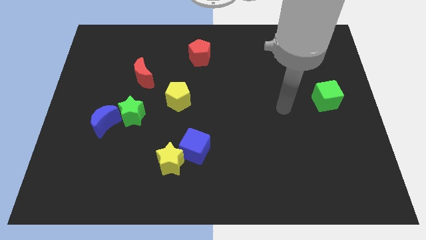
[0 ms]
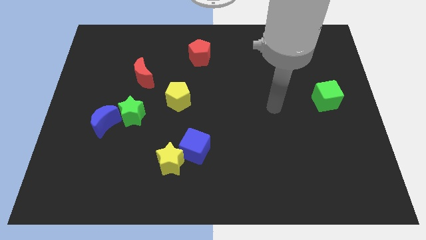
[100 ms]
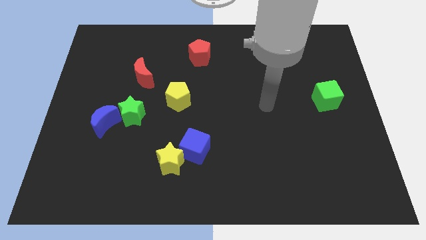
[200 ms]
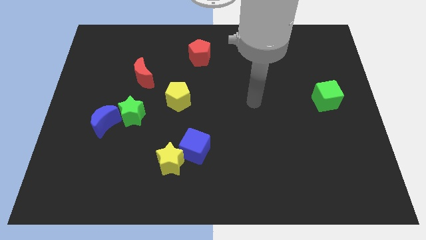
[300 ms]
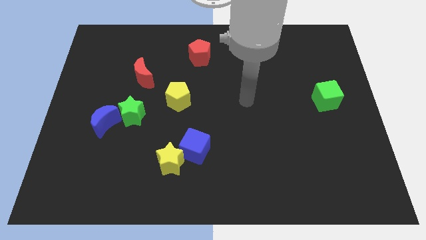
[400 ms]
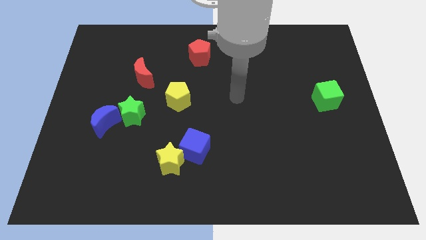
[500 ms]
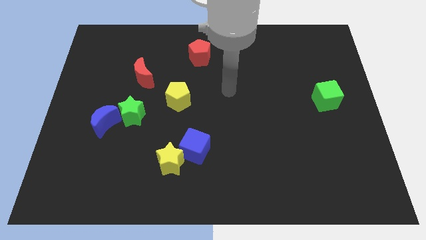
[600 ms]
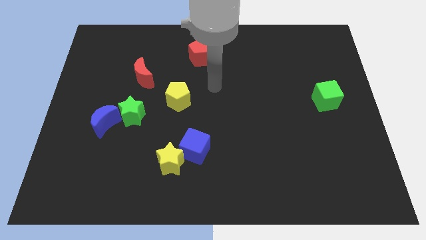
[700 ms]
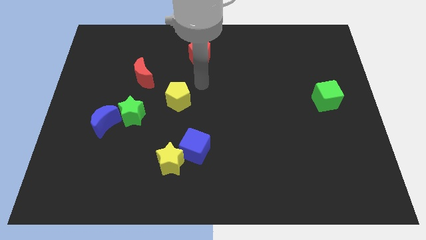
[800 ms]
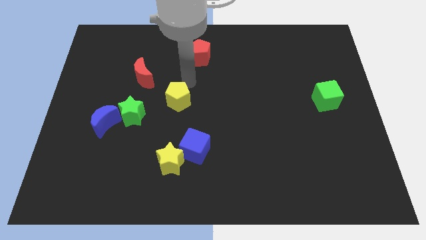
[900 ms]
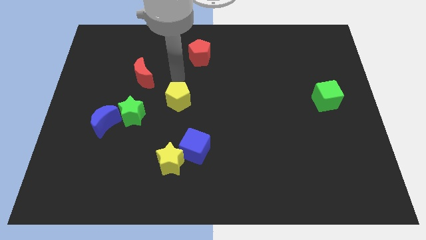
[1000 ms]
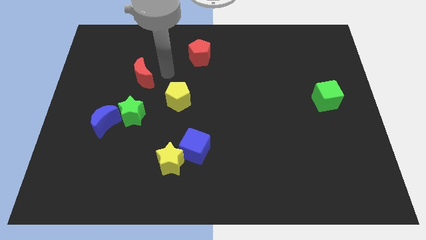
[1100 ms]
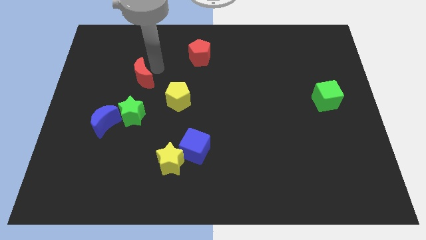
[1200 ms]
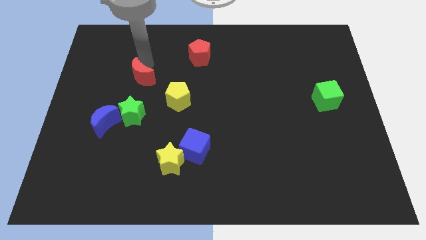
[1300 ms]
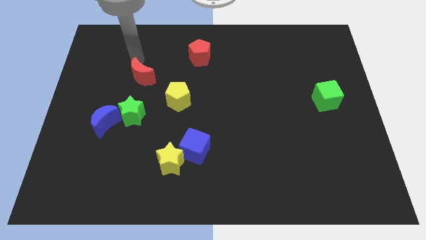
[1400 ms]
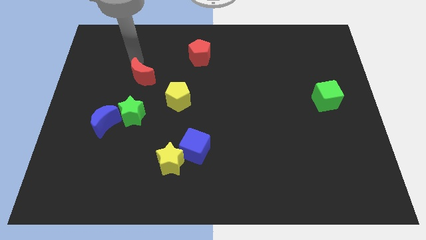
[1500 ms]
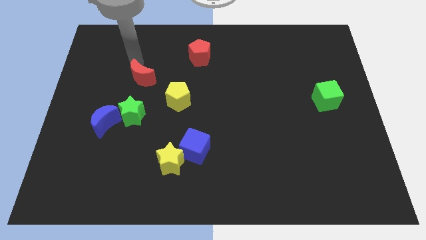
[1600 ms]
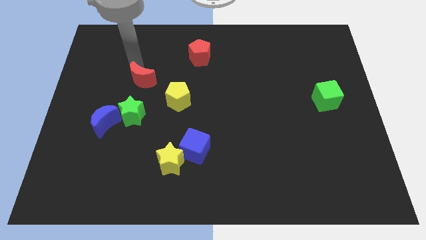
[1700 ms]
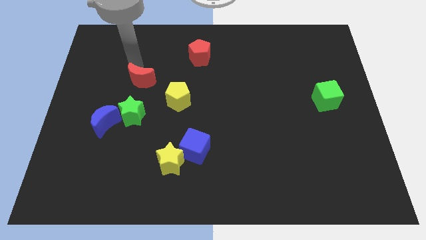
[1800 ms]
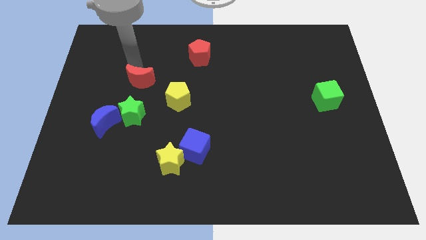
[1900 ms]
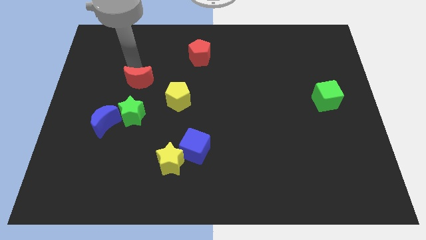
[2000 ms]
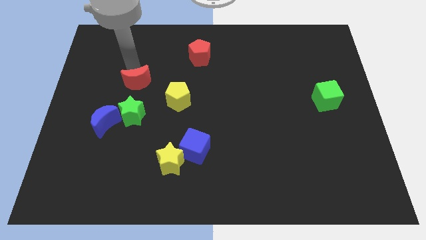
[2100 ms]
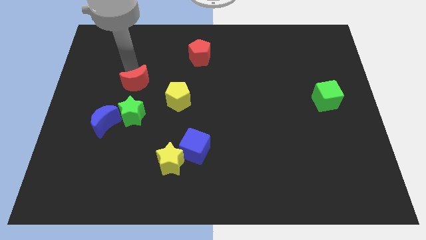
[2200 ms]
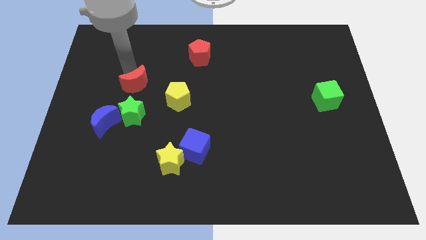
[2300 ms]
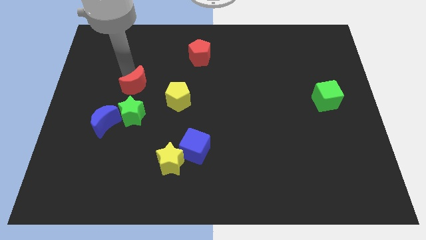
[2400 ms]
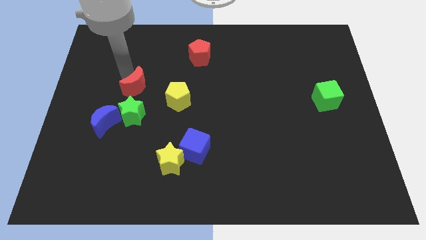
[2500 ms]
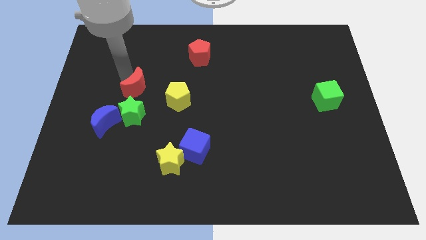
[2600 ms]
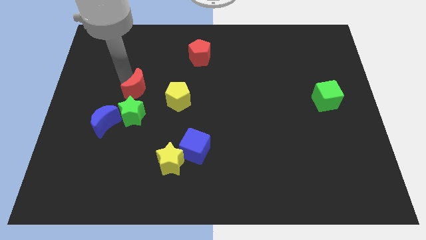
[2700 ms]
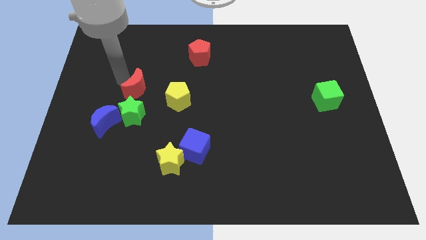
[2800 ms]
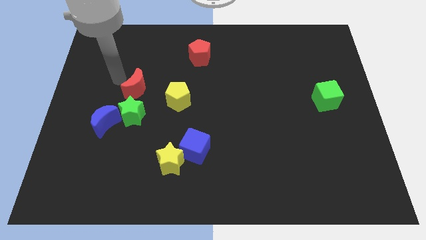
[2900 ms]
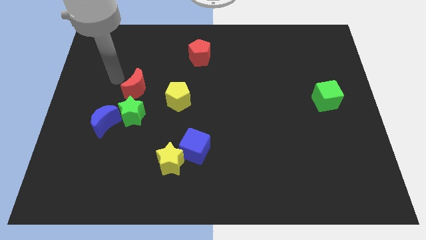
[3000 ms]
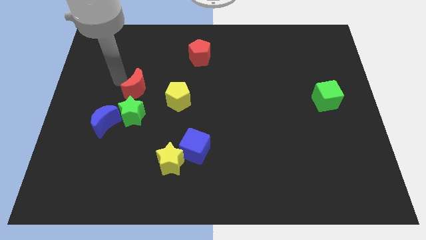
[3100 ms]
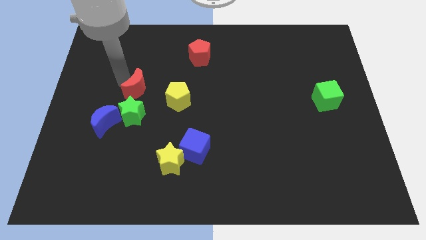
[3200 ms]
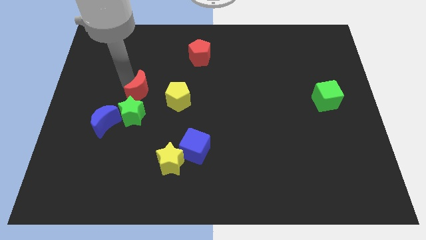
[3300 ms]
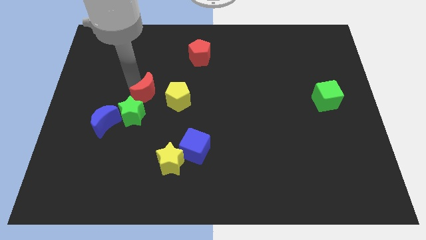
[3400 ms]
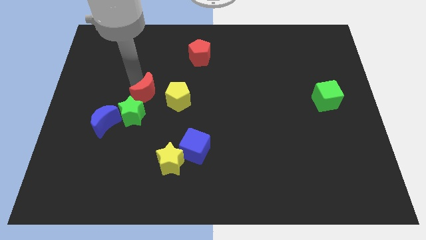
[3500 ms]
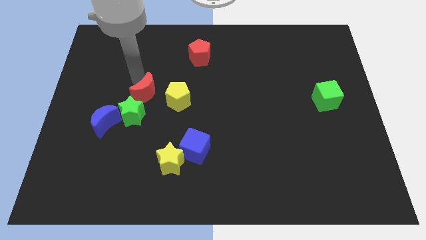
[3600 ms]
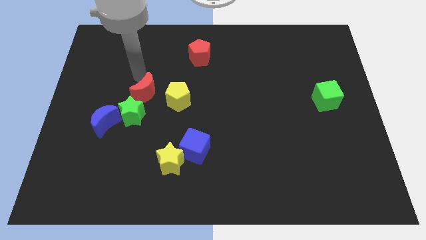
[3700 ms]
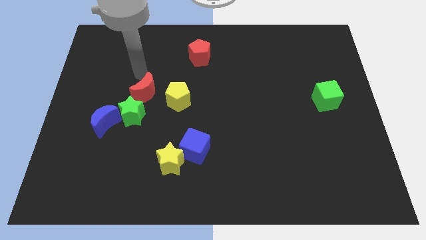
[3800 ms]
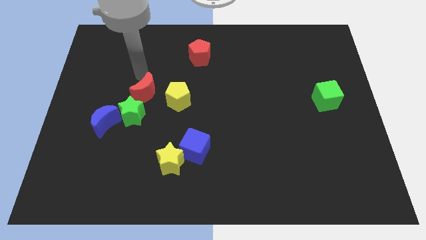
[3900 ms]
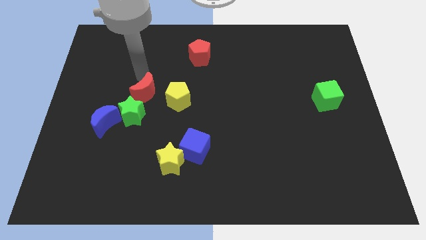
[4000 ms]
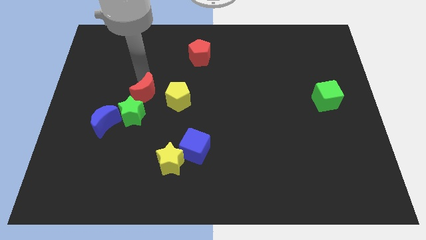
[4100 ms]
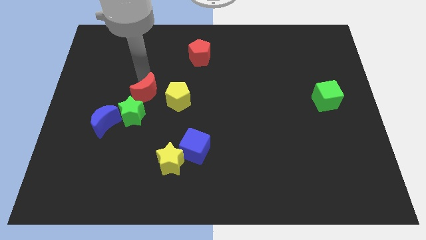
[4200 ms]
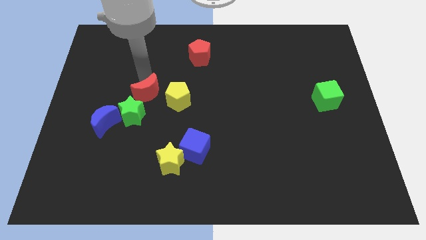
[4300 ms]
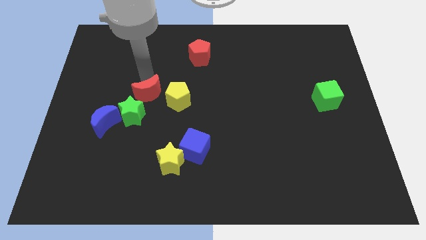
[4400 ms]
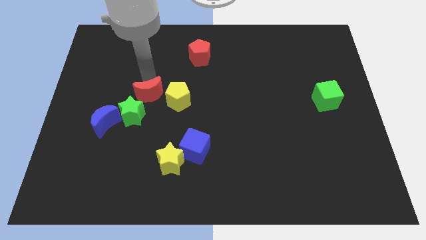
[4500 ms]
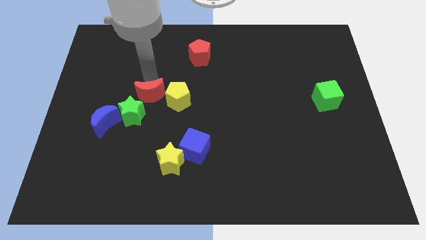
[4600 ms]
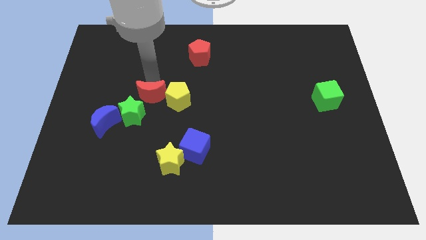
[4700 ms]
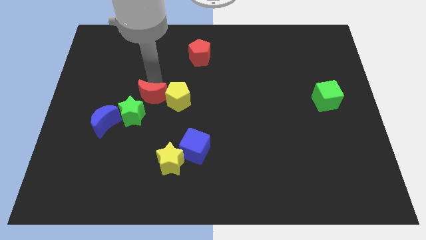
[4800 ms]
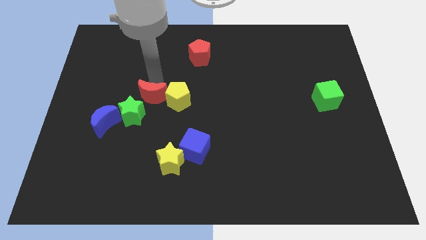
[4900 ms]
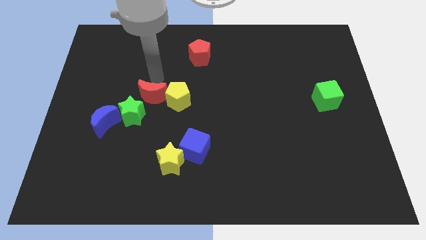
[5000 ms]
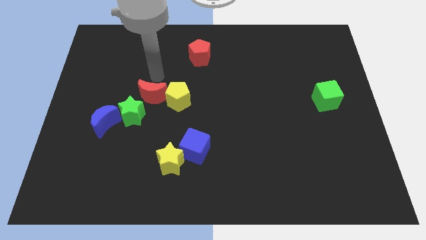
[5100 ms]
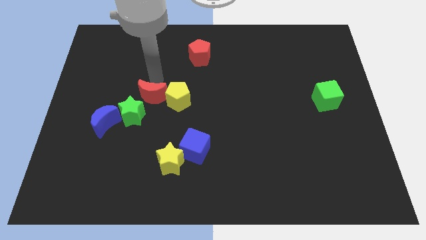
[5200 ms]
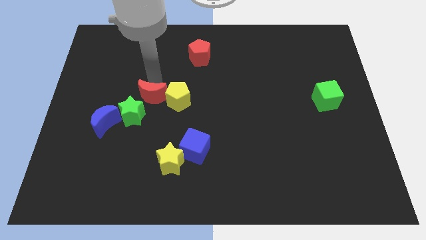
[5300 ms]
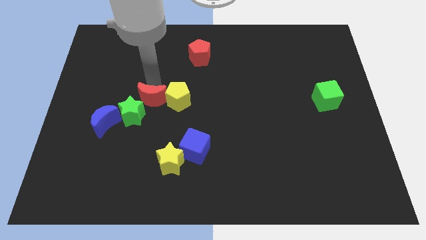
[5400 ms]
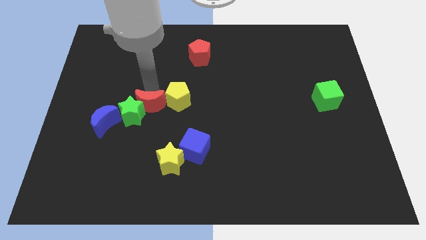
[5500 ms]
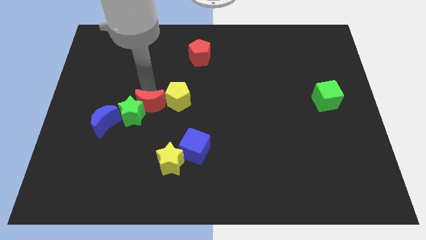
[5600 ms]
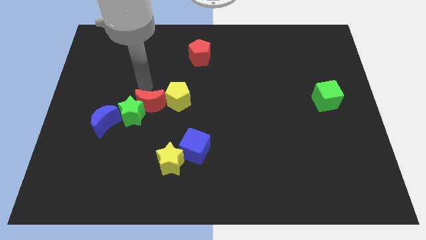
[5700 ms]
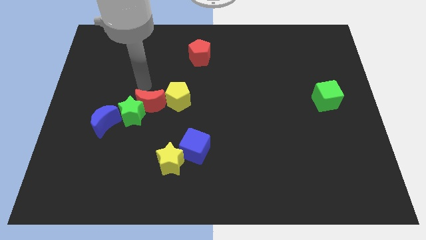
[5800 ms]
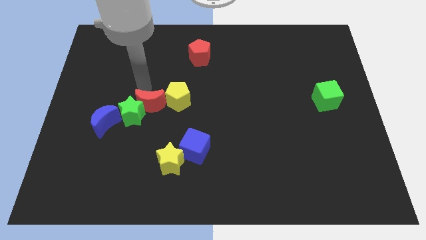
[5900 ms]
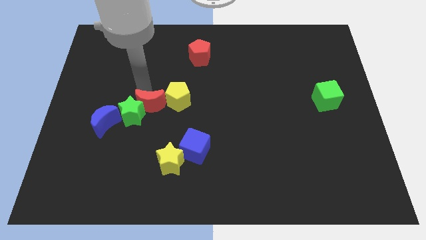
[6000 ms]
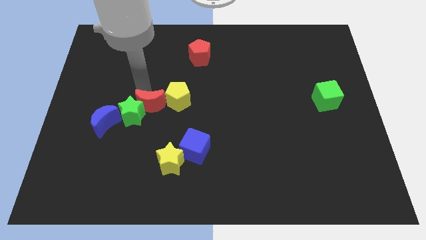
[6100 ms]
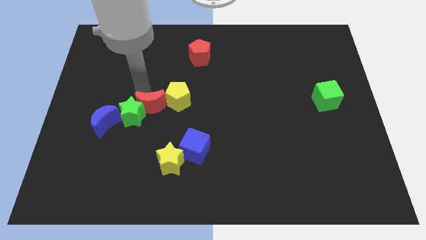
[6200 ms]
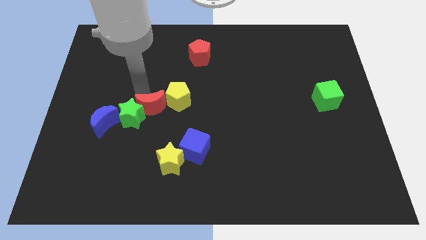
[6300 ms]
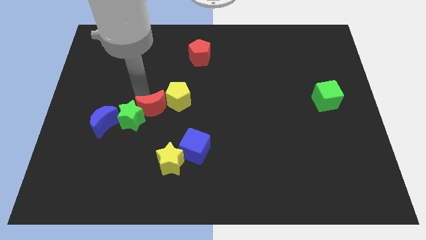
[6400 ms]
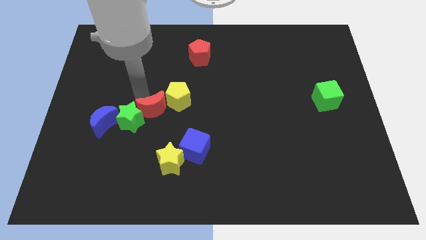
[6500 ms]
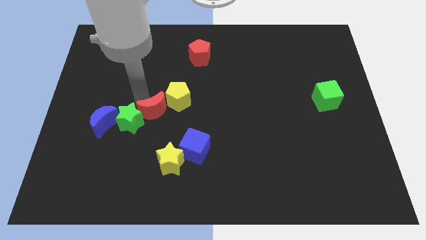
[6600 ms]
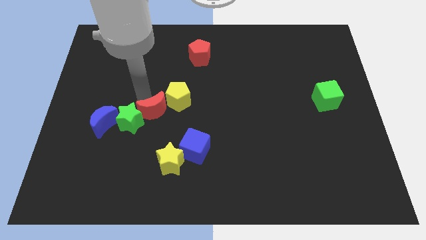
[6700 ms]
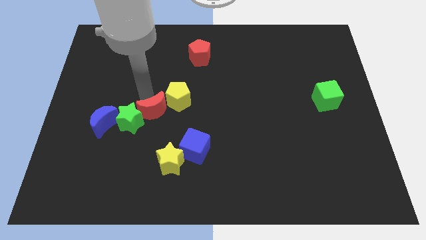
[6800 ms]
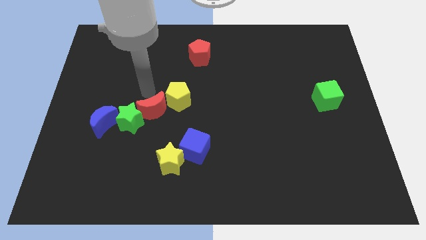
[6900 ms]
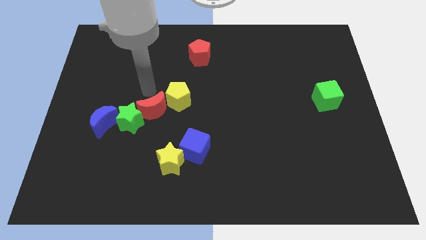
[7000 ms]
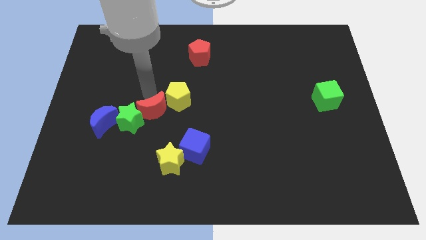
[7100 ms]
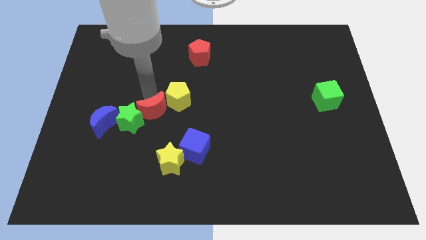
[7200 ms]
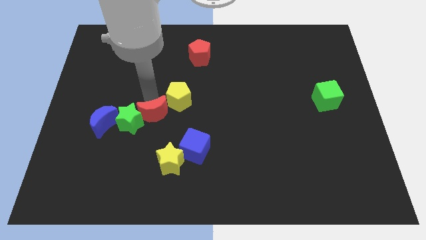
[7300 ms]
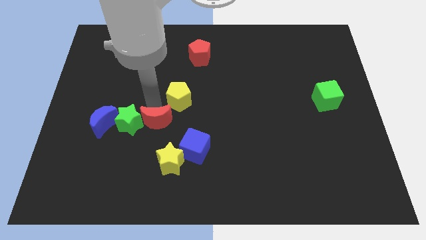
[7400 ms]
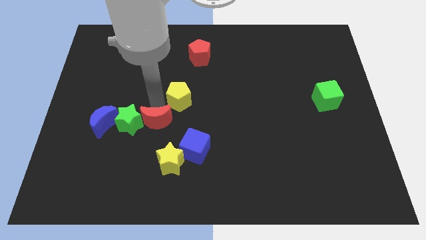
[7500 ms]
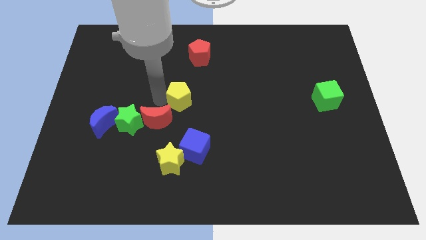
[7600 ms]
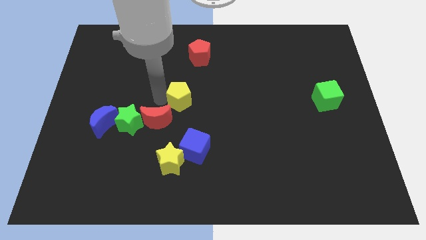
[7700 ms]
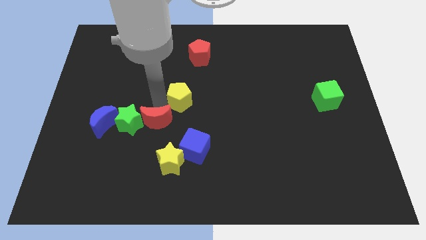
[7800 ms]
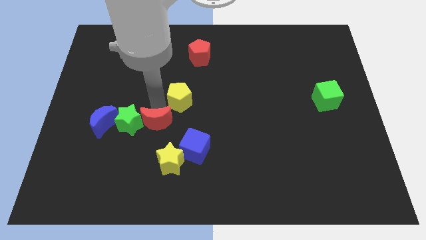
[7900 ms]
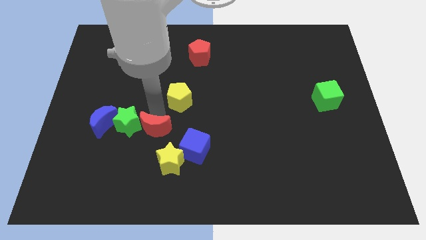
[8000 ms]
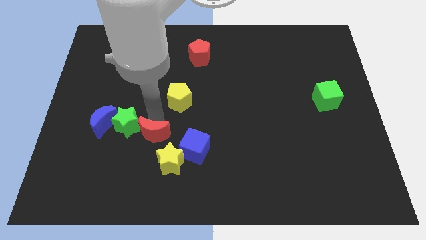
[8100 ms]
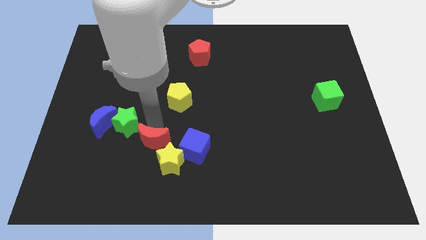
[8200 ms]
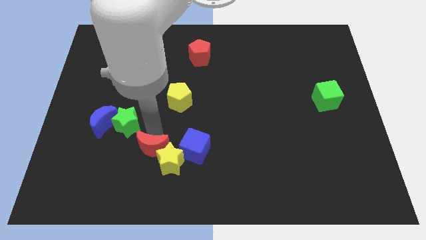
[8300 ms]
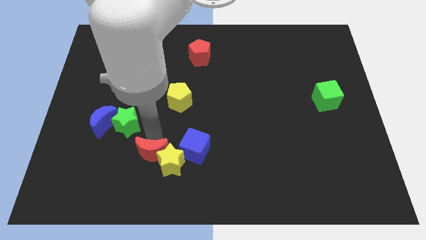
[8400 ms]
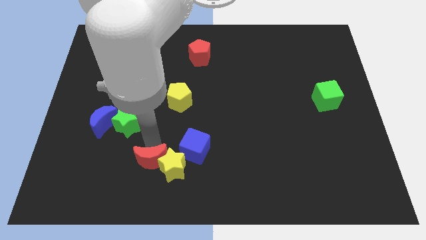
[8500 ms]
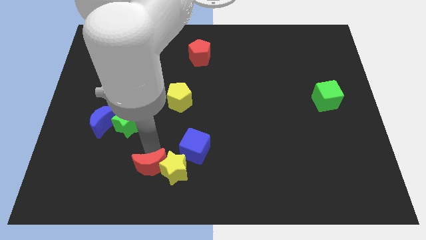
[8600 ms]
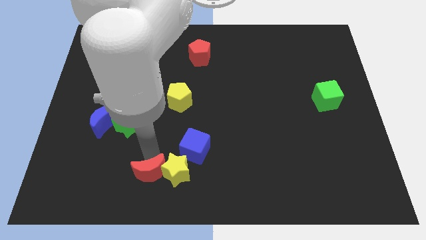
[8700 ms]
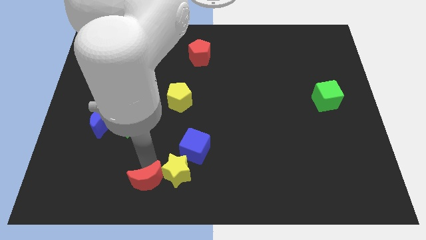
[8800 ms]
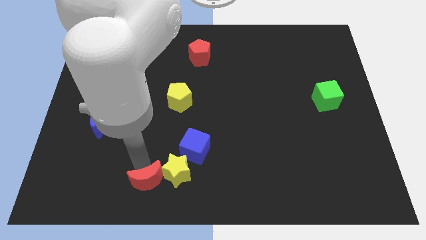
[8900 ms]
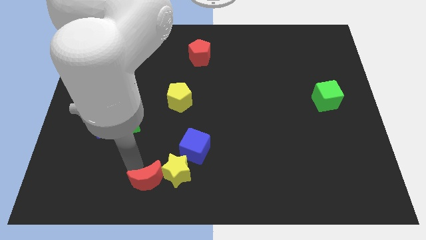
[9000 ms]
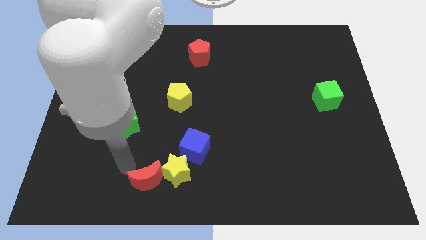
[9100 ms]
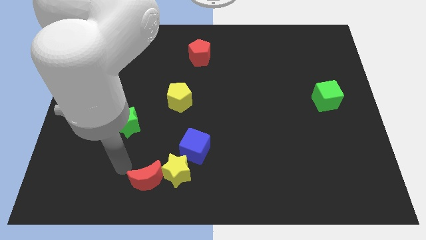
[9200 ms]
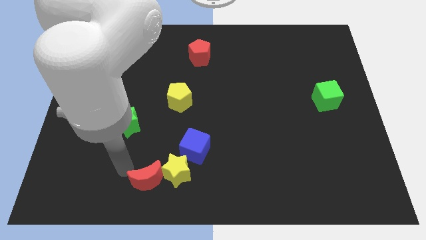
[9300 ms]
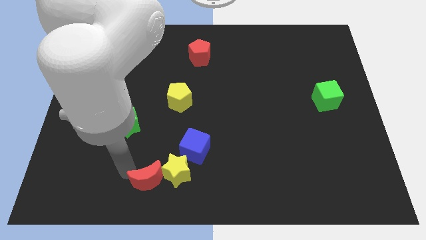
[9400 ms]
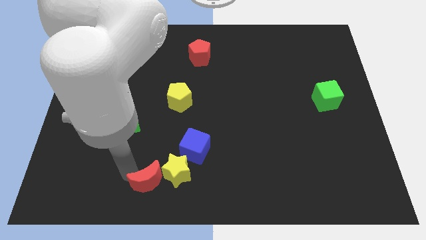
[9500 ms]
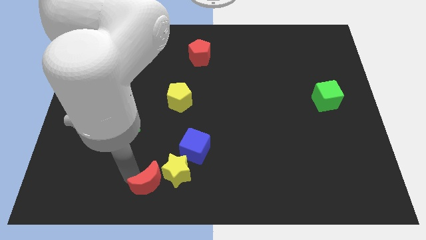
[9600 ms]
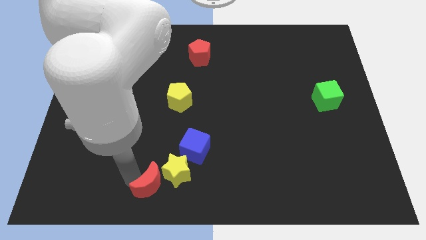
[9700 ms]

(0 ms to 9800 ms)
move the red moon to the bottom side
